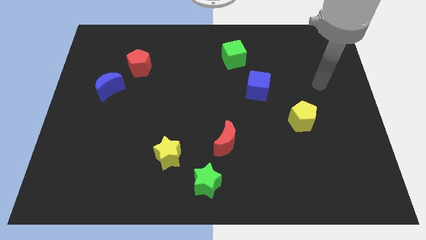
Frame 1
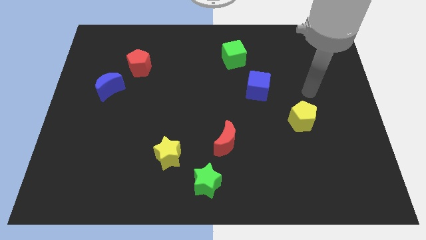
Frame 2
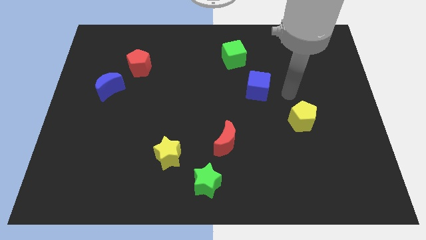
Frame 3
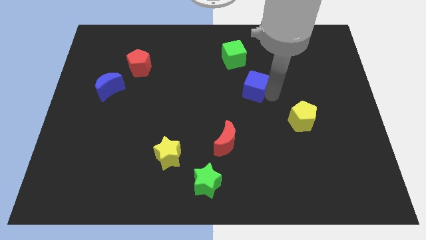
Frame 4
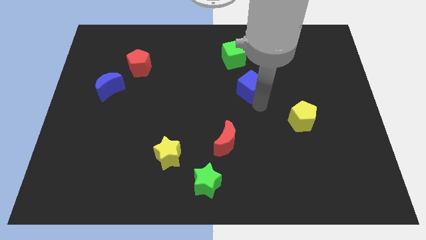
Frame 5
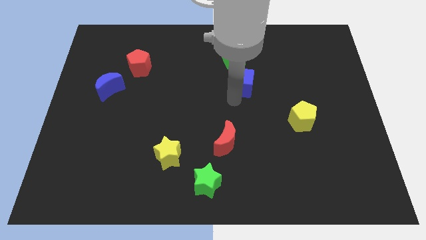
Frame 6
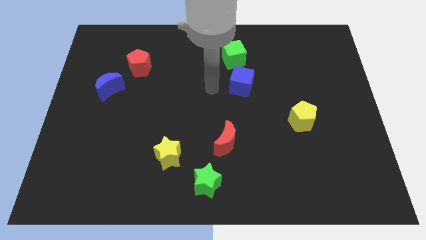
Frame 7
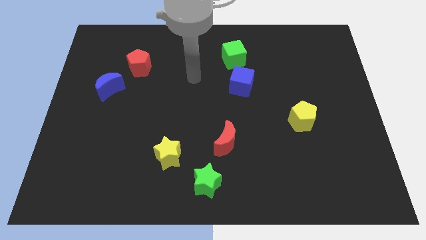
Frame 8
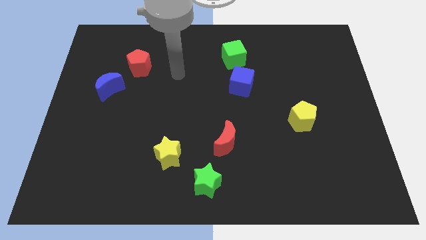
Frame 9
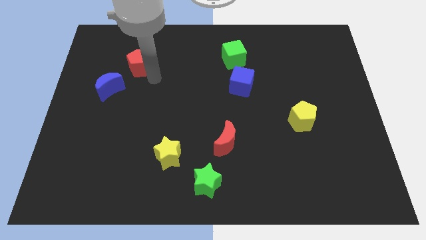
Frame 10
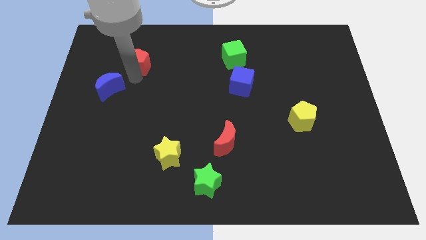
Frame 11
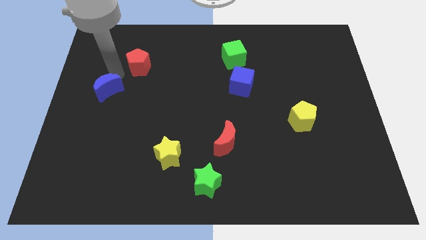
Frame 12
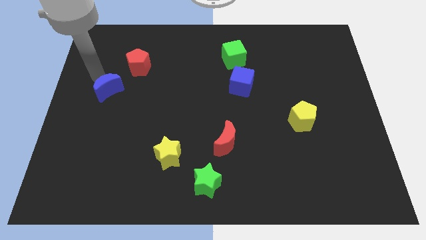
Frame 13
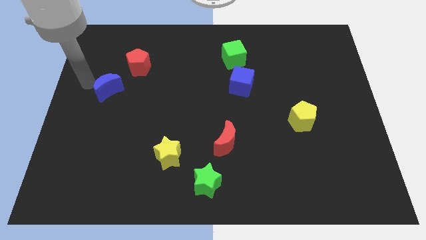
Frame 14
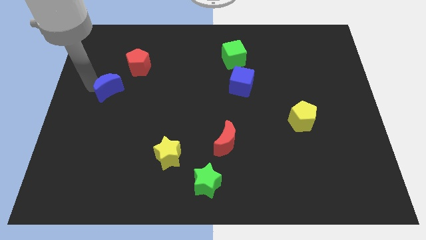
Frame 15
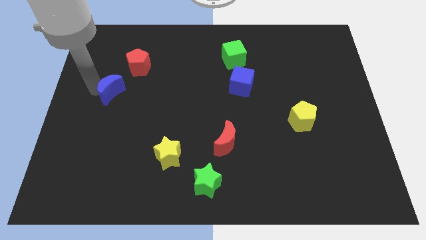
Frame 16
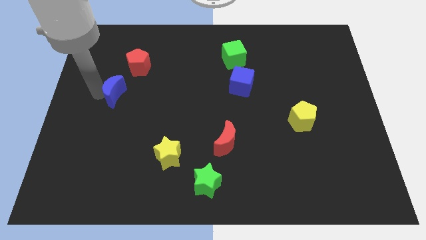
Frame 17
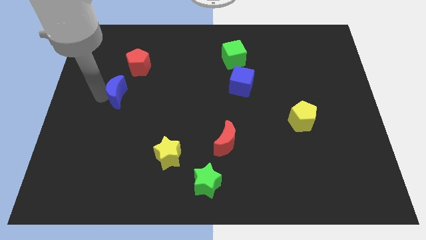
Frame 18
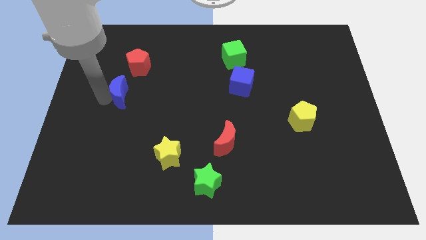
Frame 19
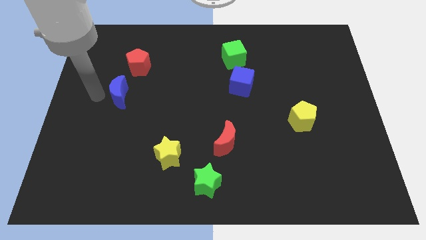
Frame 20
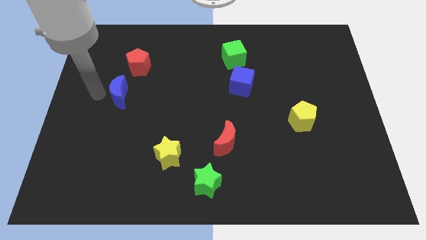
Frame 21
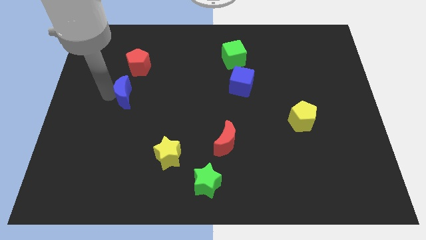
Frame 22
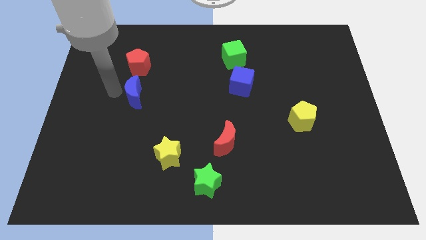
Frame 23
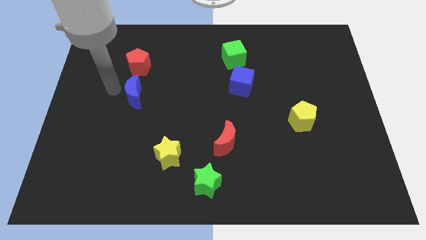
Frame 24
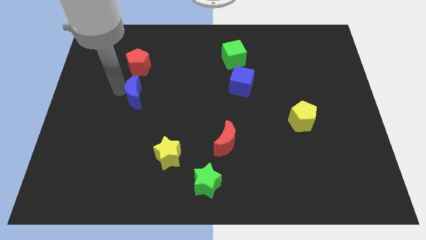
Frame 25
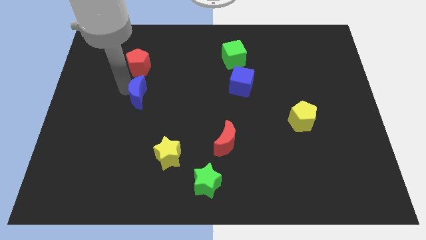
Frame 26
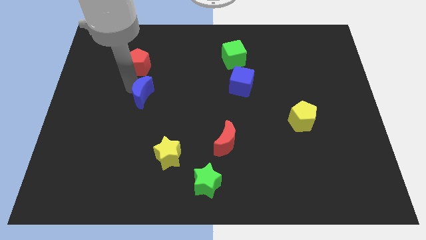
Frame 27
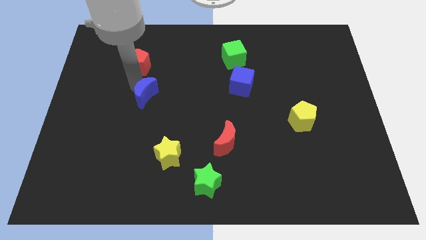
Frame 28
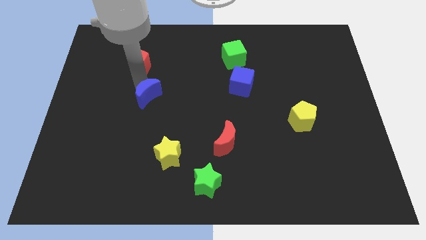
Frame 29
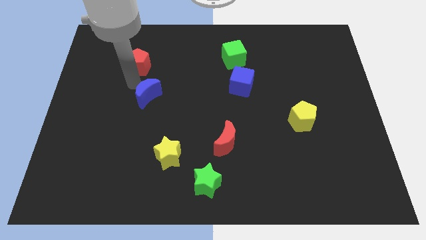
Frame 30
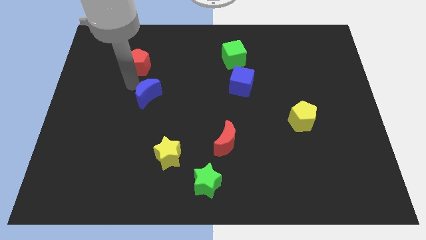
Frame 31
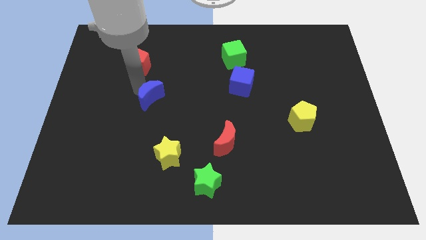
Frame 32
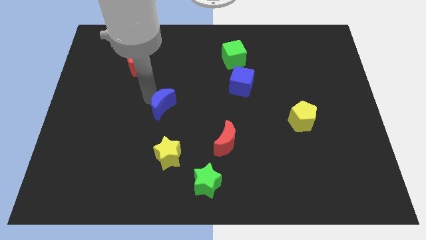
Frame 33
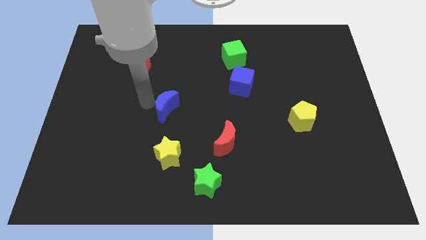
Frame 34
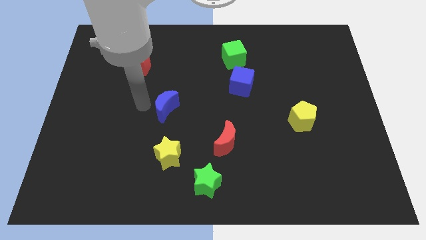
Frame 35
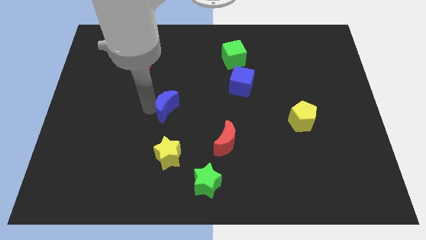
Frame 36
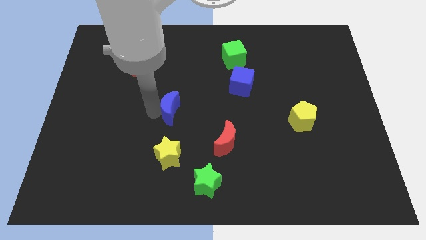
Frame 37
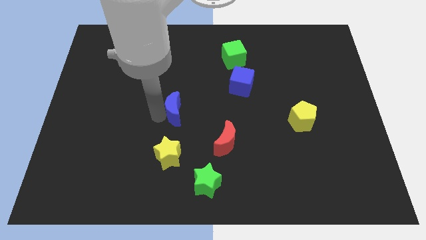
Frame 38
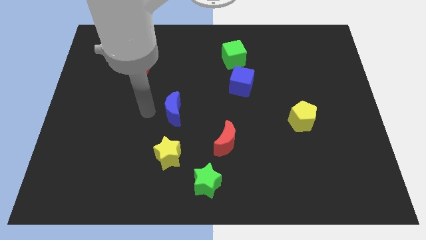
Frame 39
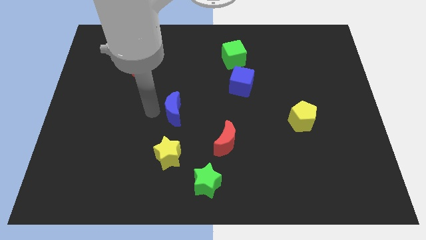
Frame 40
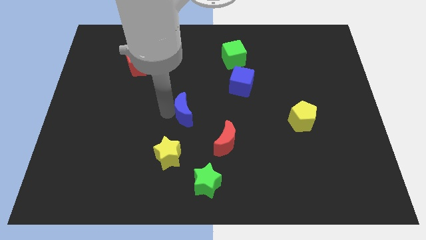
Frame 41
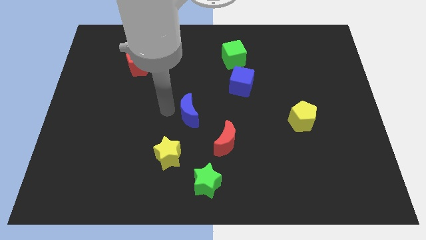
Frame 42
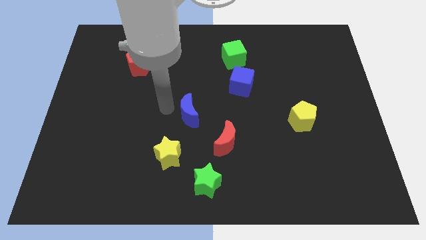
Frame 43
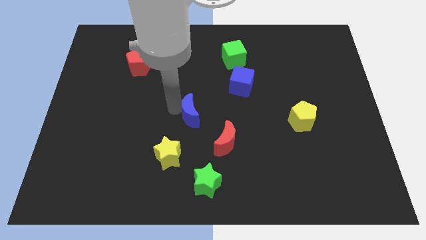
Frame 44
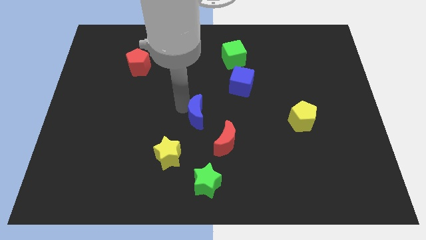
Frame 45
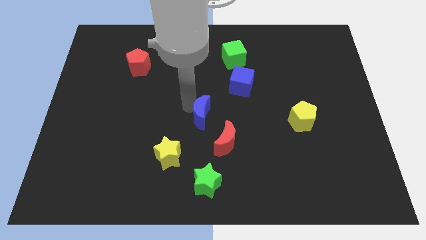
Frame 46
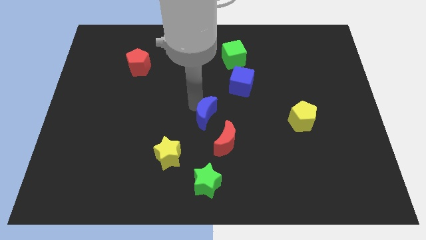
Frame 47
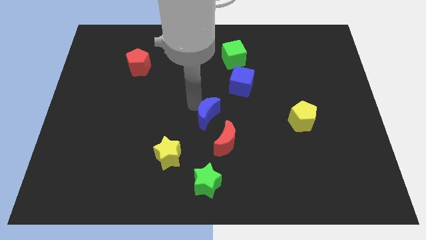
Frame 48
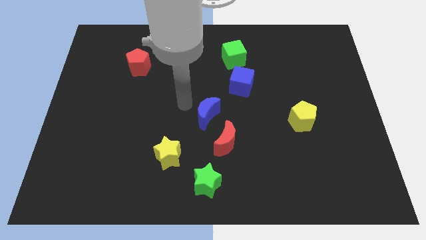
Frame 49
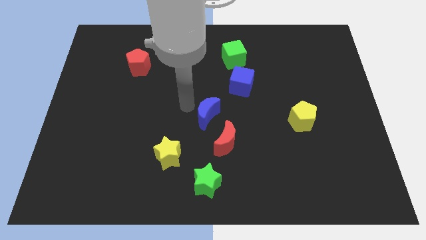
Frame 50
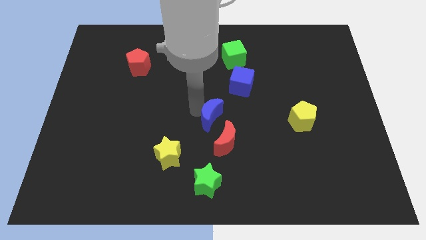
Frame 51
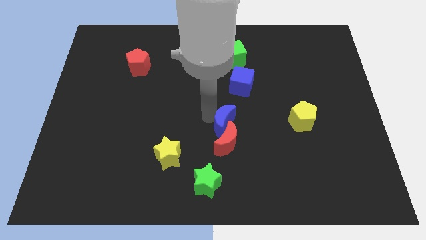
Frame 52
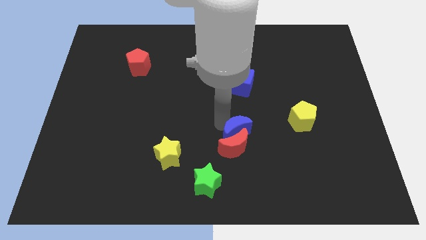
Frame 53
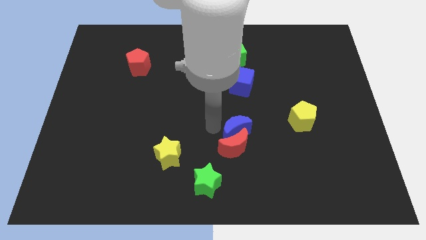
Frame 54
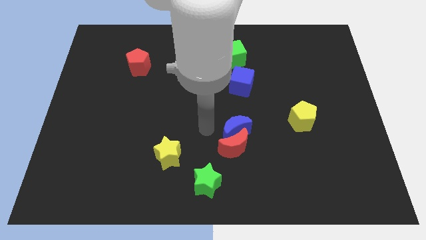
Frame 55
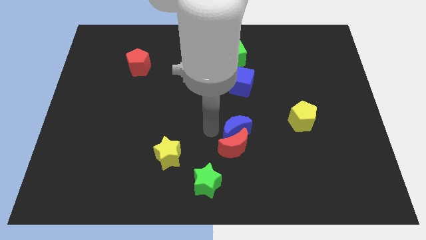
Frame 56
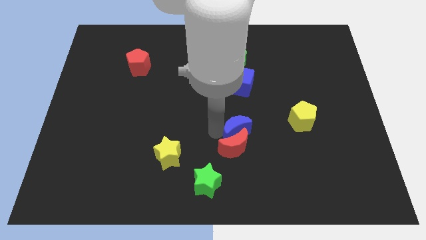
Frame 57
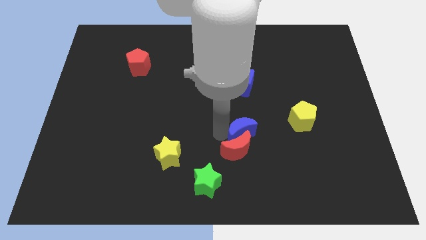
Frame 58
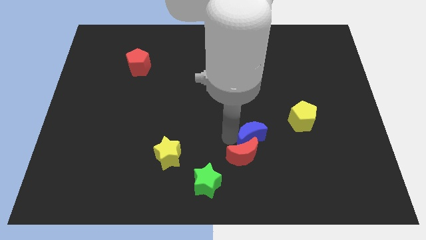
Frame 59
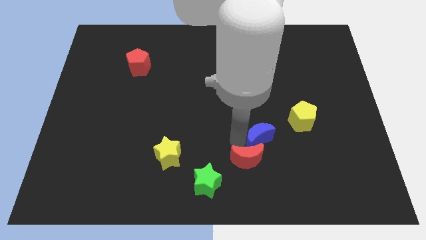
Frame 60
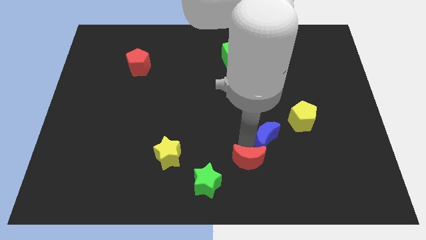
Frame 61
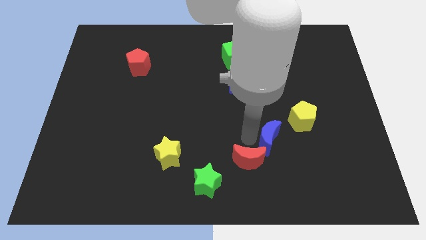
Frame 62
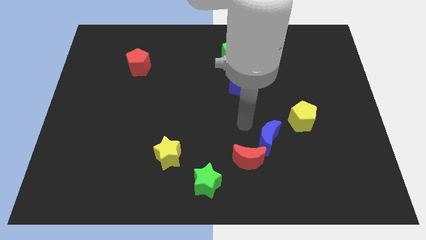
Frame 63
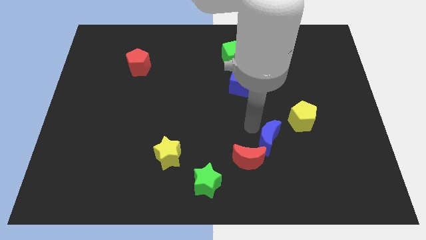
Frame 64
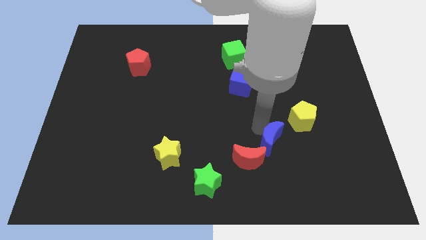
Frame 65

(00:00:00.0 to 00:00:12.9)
slide the blue moon to the right side of the red moon

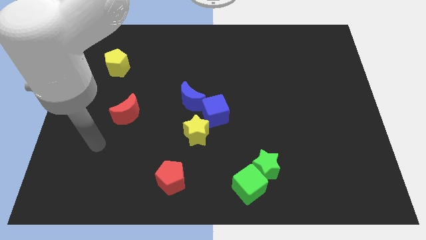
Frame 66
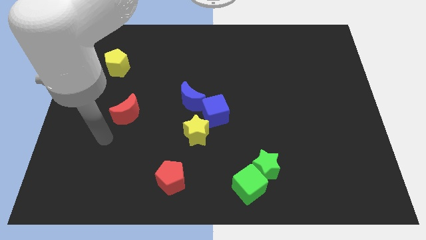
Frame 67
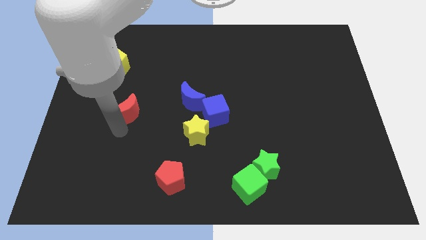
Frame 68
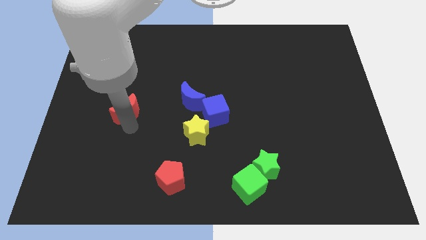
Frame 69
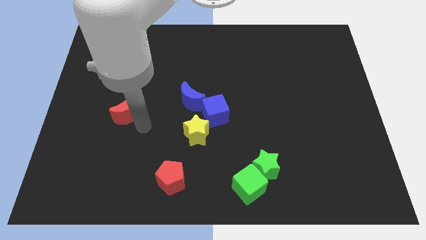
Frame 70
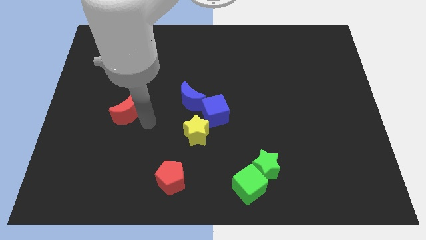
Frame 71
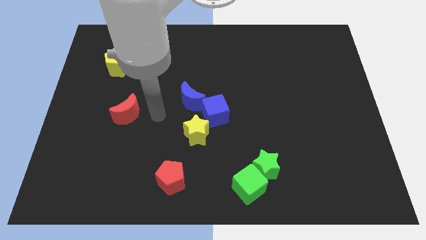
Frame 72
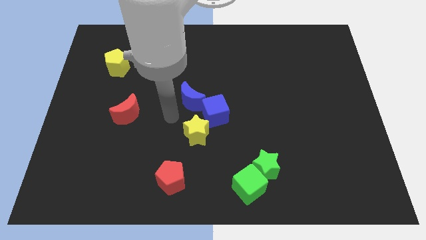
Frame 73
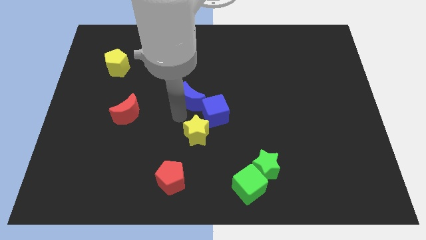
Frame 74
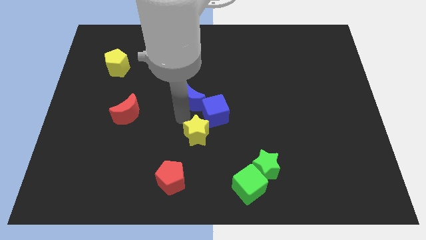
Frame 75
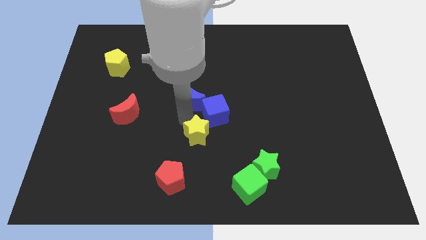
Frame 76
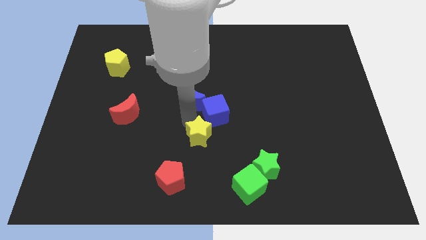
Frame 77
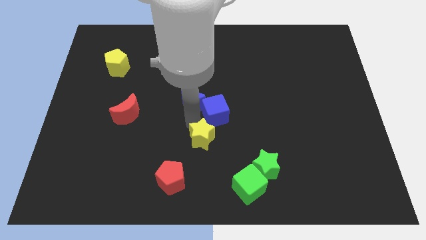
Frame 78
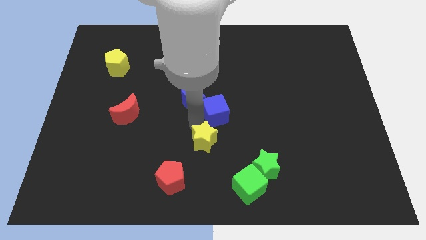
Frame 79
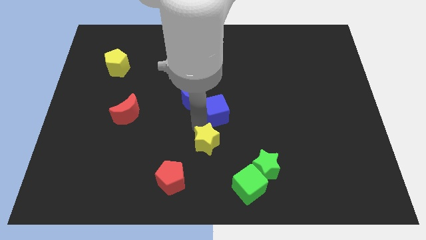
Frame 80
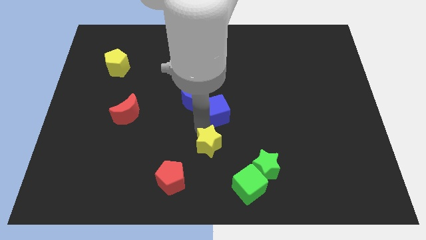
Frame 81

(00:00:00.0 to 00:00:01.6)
move the yellow star to the top left side of the green cube
